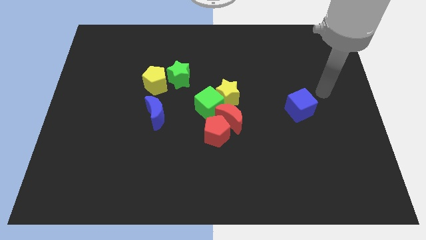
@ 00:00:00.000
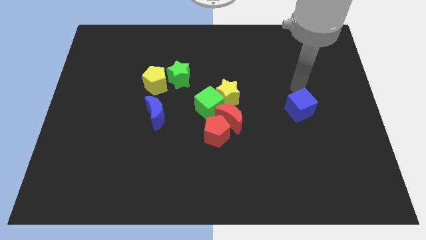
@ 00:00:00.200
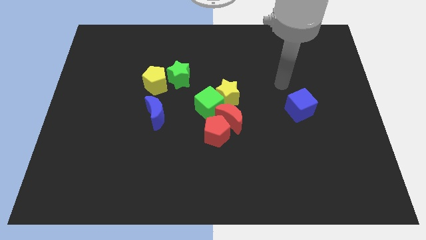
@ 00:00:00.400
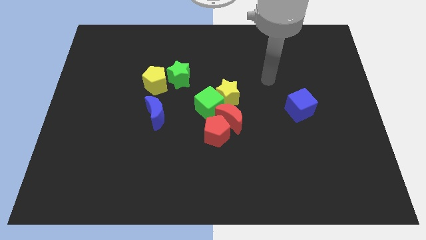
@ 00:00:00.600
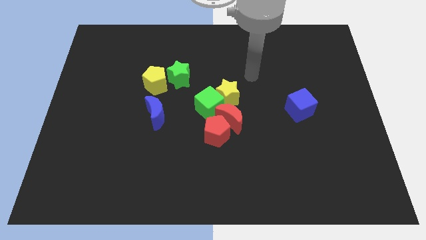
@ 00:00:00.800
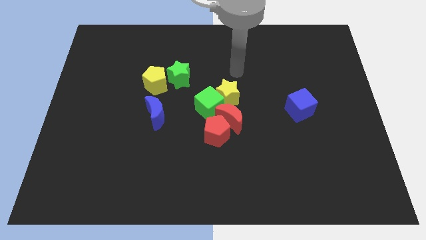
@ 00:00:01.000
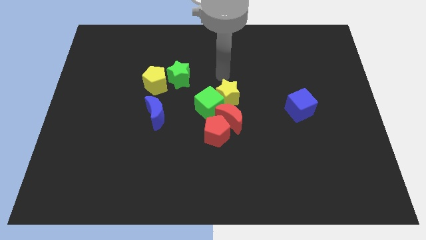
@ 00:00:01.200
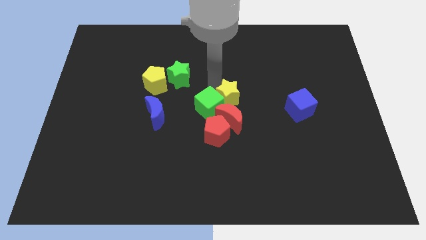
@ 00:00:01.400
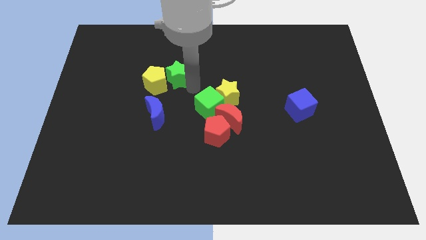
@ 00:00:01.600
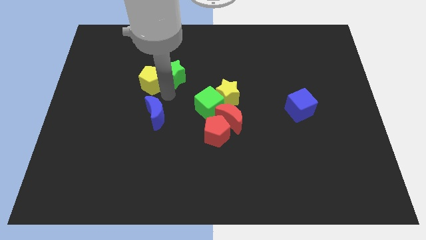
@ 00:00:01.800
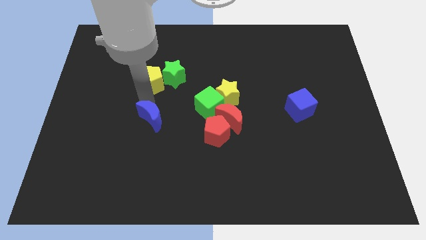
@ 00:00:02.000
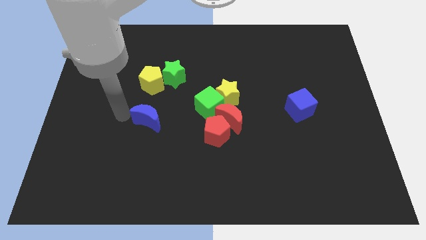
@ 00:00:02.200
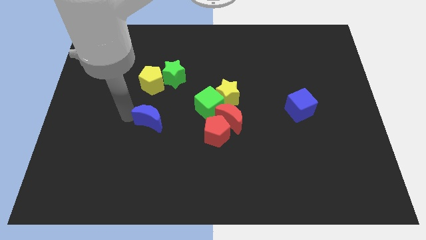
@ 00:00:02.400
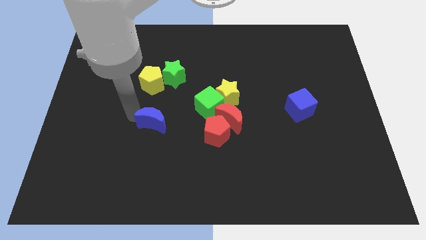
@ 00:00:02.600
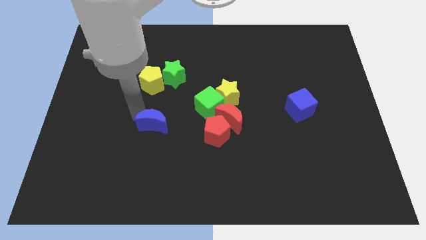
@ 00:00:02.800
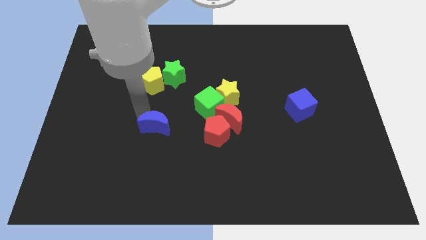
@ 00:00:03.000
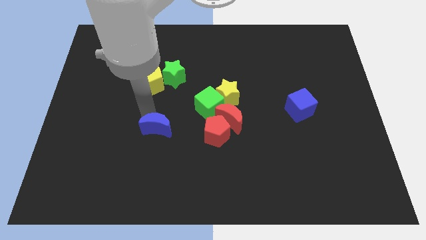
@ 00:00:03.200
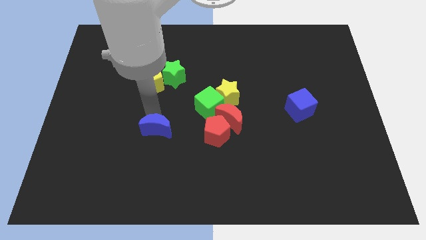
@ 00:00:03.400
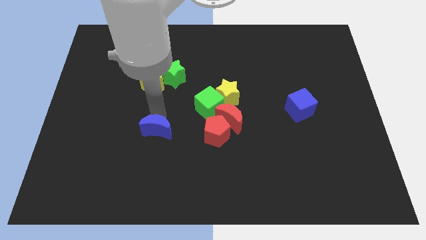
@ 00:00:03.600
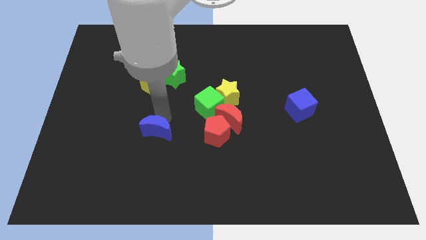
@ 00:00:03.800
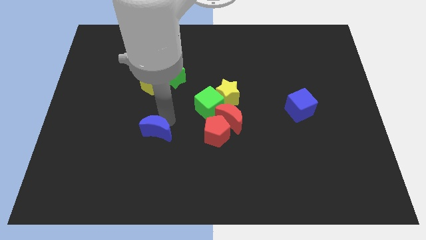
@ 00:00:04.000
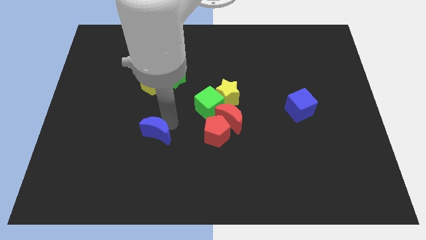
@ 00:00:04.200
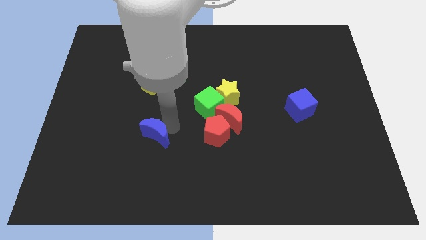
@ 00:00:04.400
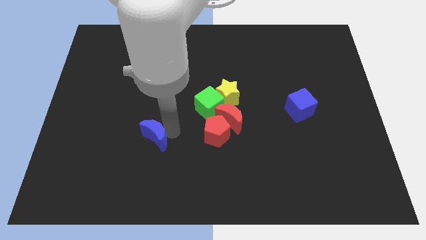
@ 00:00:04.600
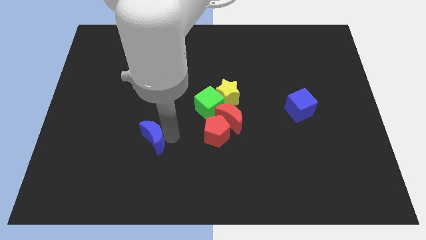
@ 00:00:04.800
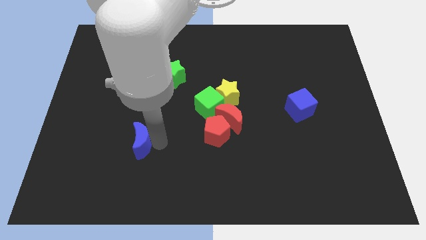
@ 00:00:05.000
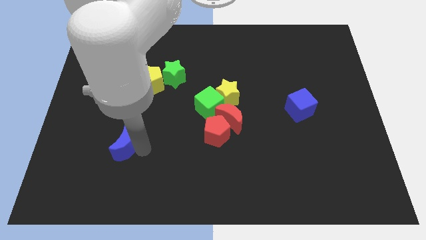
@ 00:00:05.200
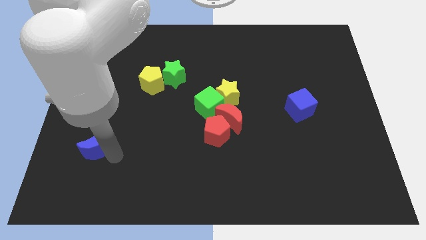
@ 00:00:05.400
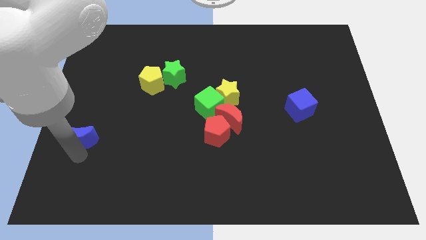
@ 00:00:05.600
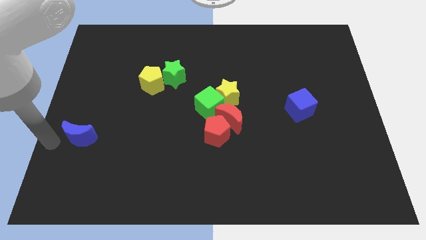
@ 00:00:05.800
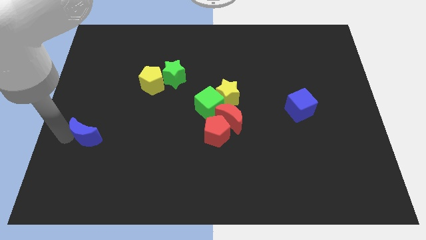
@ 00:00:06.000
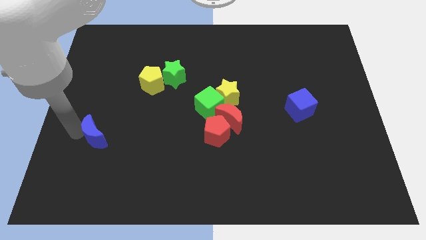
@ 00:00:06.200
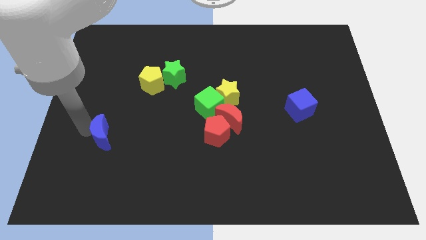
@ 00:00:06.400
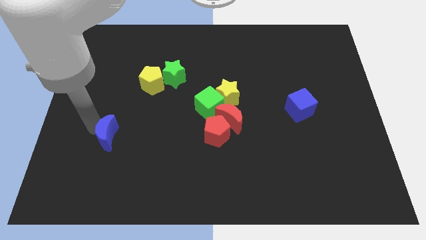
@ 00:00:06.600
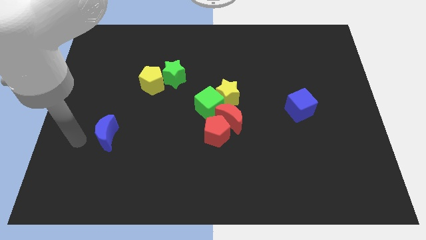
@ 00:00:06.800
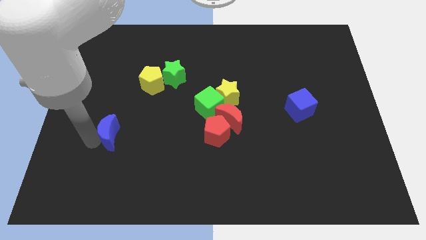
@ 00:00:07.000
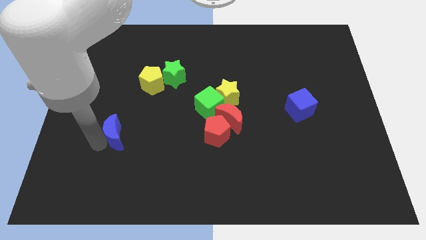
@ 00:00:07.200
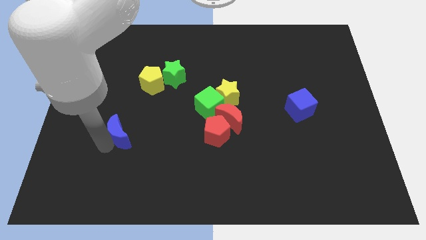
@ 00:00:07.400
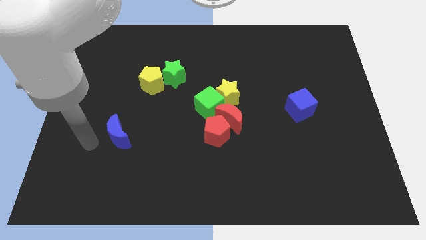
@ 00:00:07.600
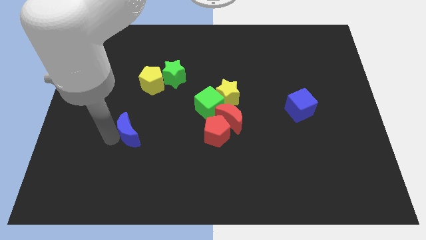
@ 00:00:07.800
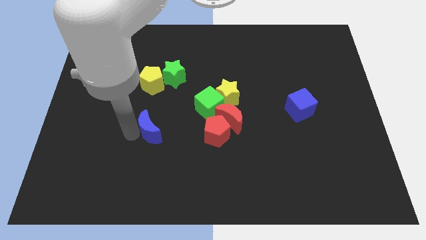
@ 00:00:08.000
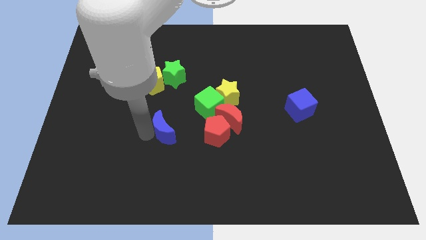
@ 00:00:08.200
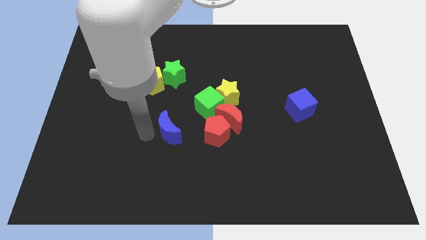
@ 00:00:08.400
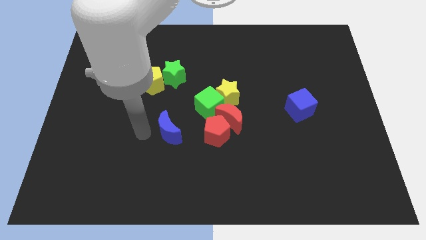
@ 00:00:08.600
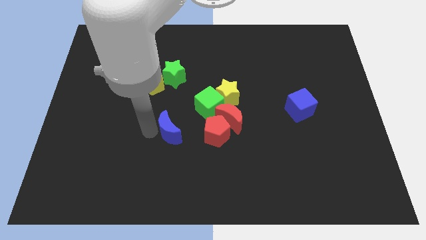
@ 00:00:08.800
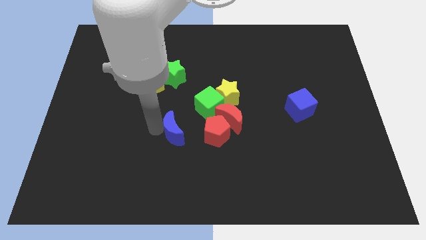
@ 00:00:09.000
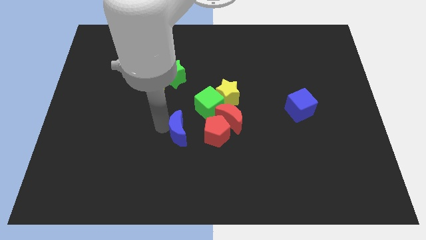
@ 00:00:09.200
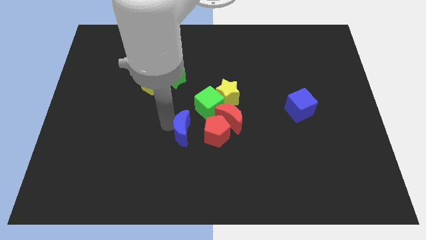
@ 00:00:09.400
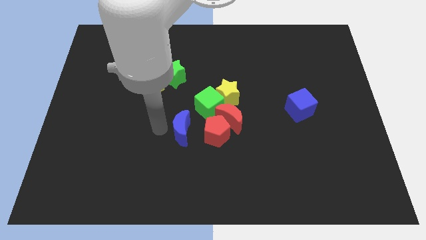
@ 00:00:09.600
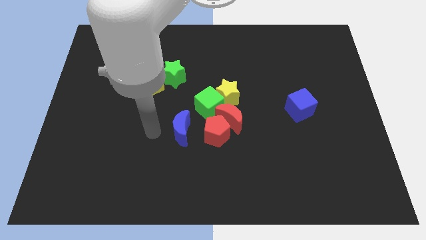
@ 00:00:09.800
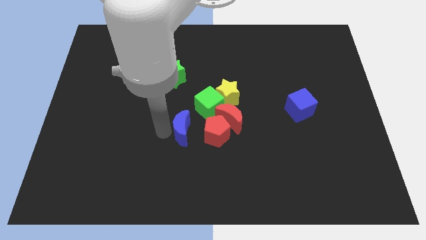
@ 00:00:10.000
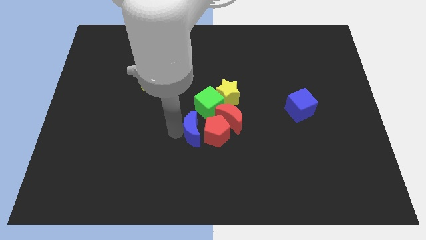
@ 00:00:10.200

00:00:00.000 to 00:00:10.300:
move the blue moon to the red pentagon

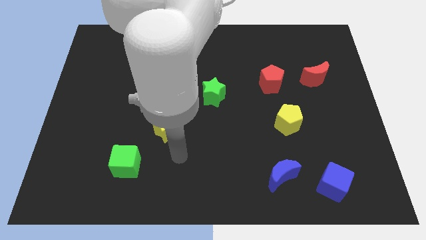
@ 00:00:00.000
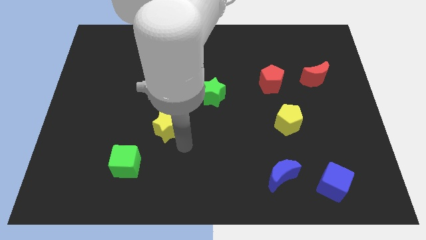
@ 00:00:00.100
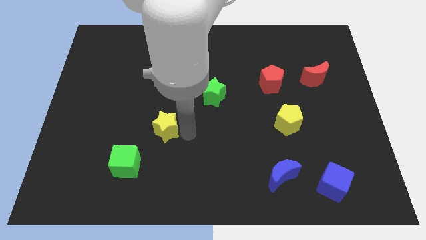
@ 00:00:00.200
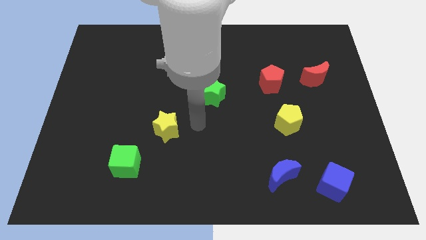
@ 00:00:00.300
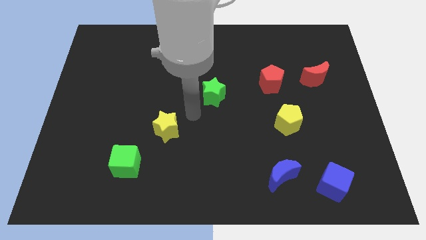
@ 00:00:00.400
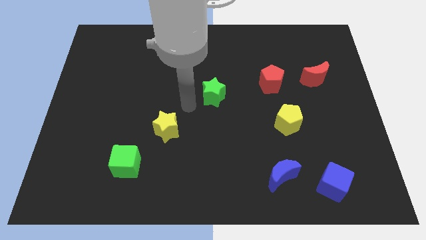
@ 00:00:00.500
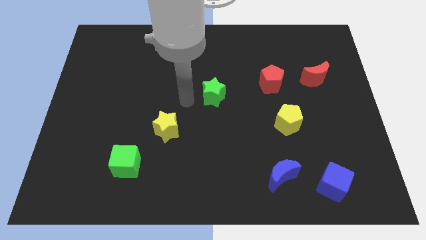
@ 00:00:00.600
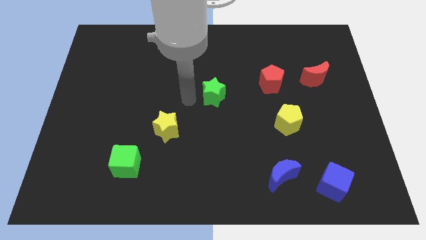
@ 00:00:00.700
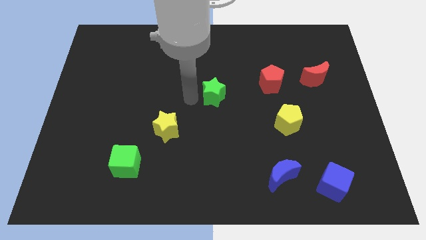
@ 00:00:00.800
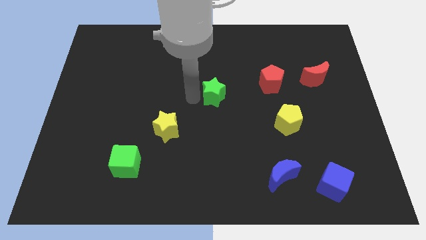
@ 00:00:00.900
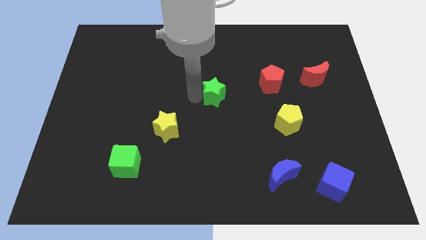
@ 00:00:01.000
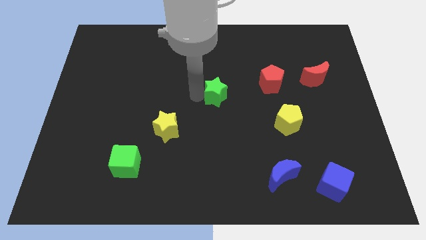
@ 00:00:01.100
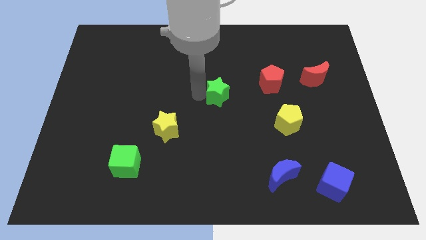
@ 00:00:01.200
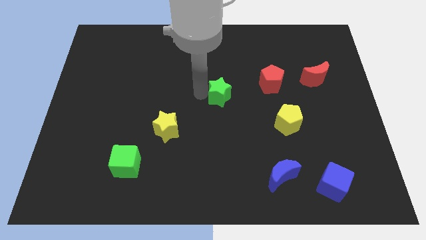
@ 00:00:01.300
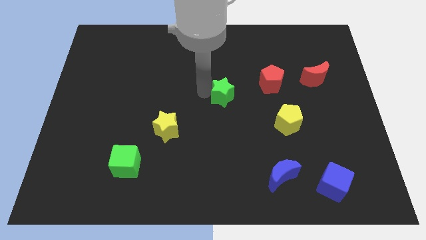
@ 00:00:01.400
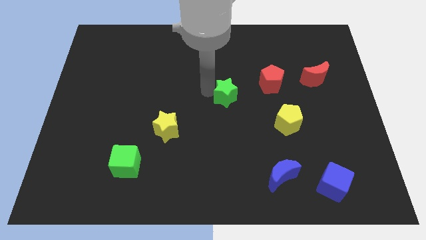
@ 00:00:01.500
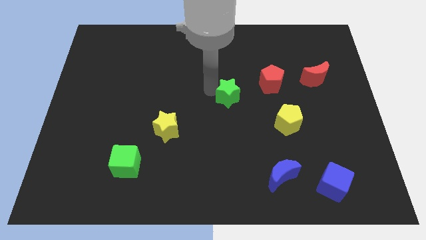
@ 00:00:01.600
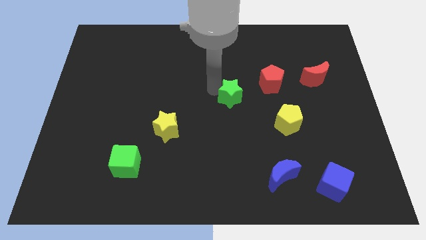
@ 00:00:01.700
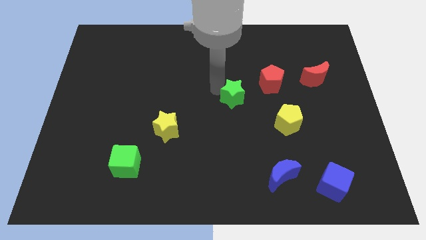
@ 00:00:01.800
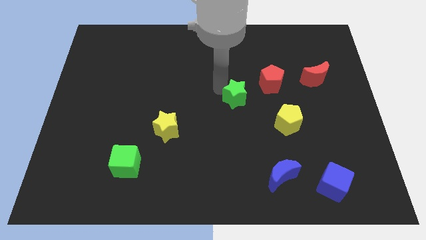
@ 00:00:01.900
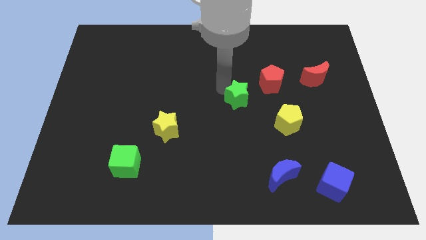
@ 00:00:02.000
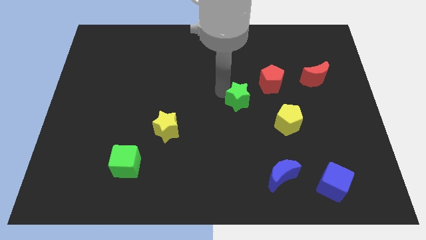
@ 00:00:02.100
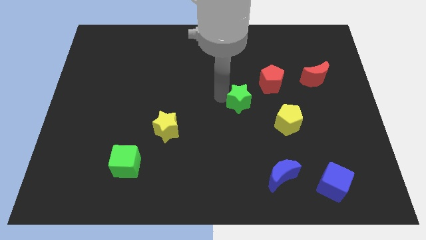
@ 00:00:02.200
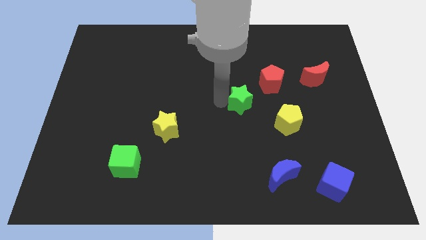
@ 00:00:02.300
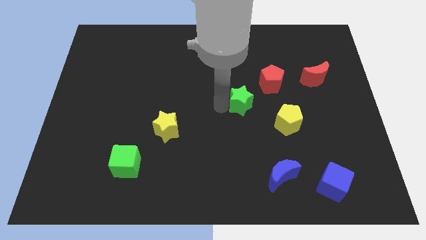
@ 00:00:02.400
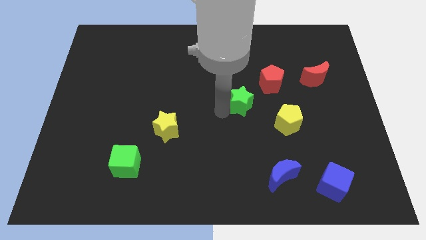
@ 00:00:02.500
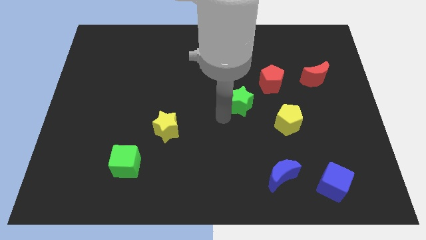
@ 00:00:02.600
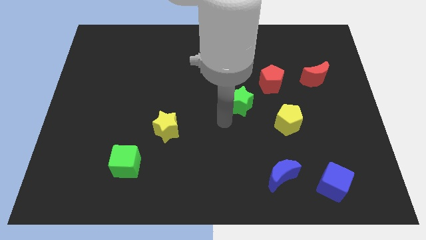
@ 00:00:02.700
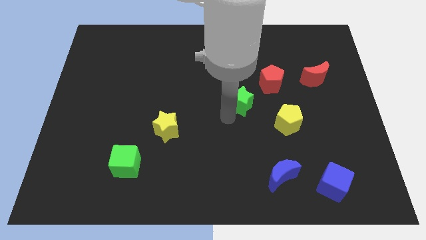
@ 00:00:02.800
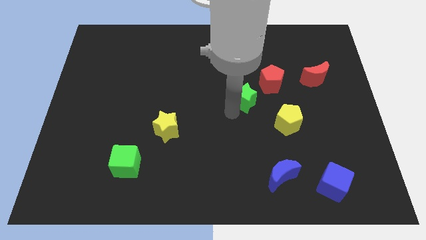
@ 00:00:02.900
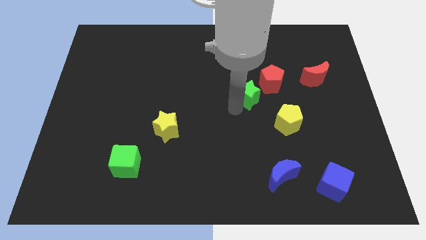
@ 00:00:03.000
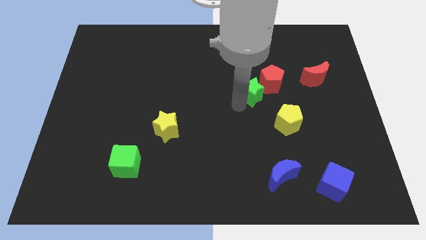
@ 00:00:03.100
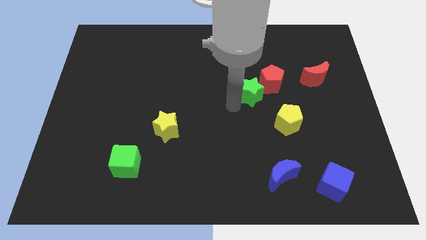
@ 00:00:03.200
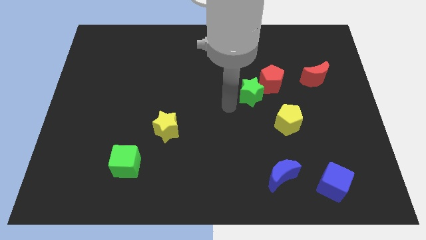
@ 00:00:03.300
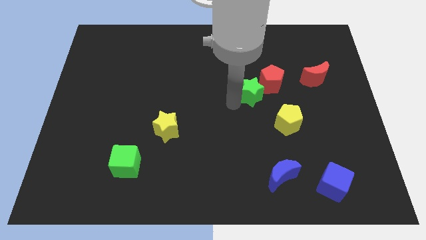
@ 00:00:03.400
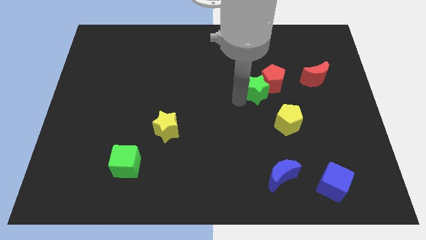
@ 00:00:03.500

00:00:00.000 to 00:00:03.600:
slide the green star to the red pentagon
